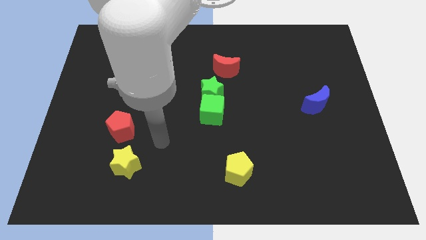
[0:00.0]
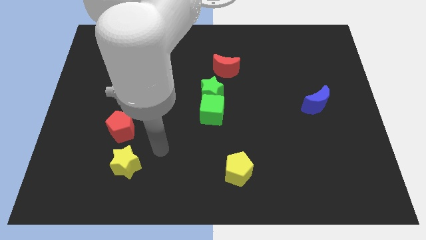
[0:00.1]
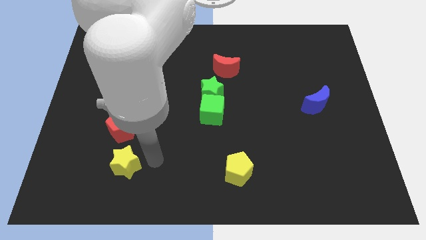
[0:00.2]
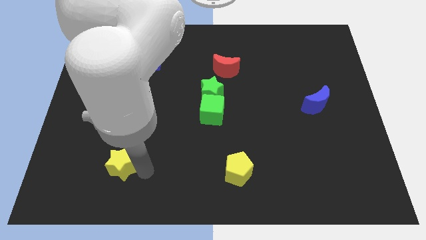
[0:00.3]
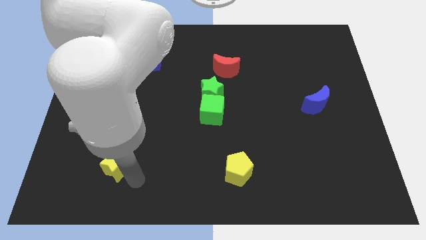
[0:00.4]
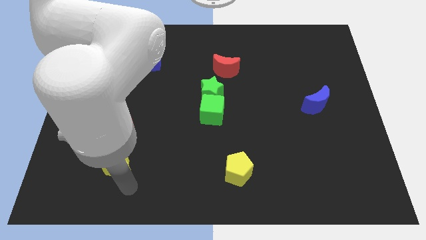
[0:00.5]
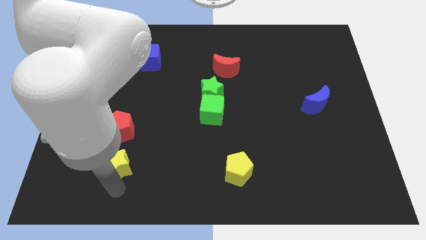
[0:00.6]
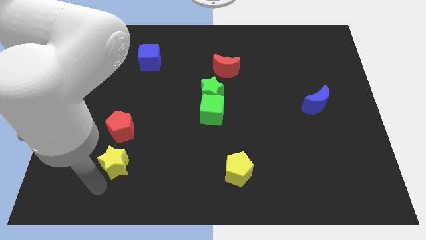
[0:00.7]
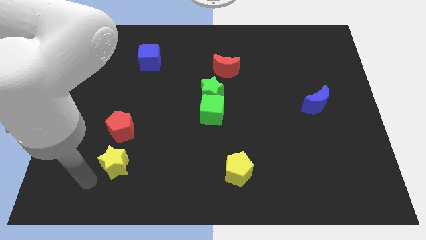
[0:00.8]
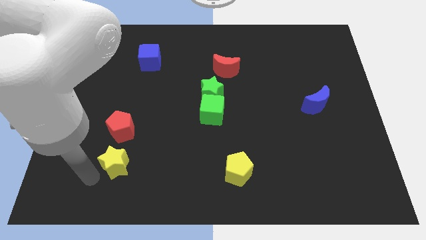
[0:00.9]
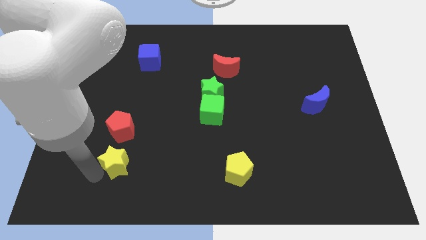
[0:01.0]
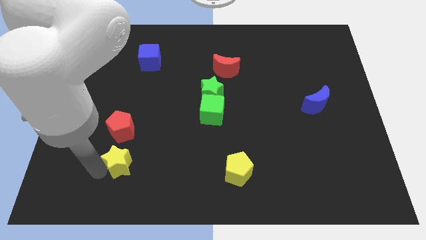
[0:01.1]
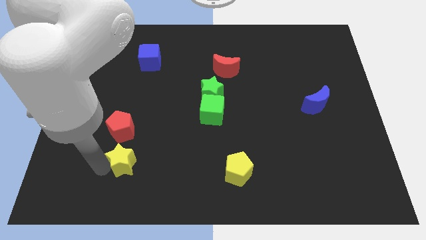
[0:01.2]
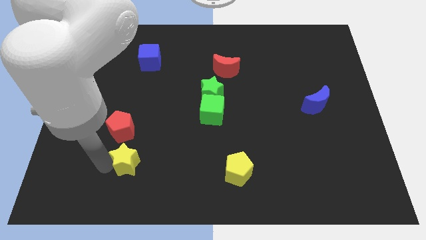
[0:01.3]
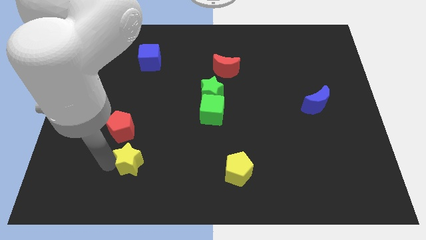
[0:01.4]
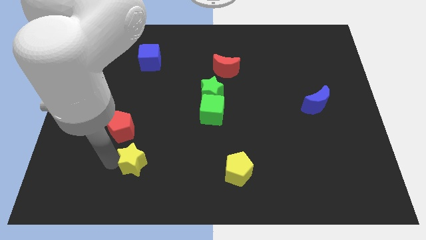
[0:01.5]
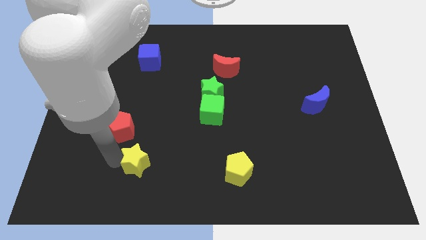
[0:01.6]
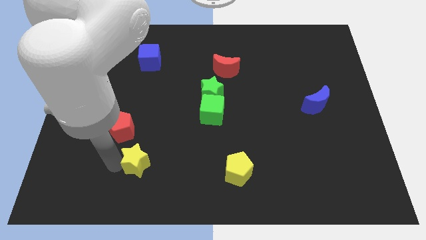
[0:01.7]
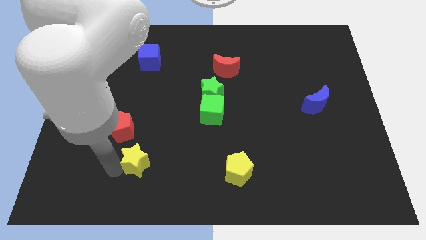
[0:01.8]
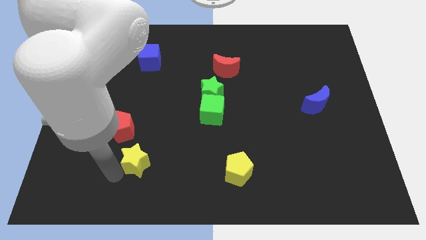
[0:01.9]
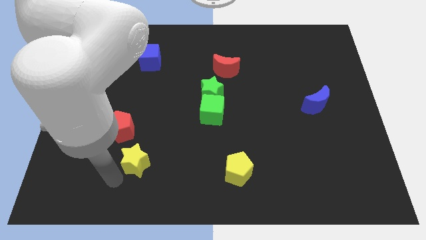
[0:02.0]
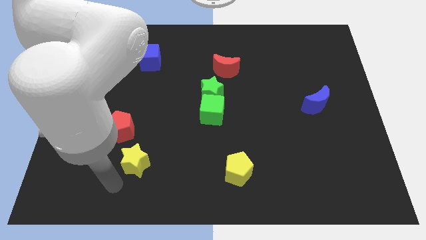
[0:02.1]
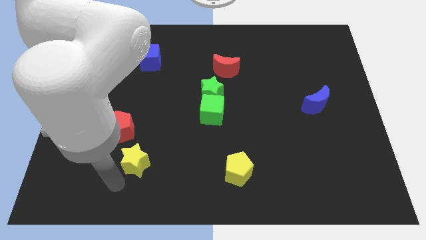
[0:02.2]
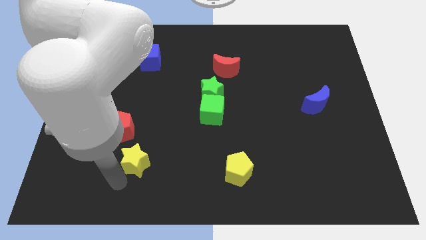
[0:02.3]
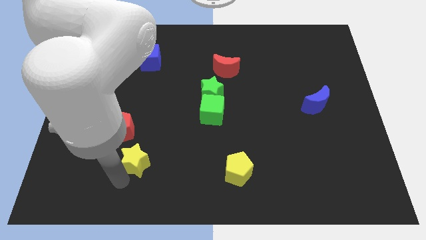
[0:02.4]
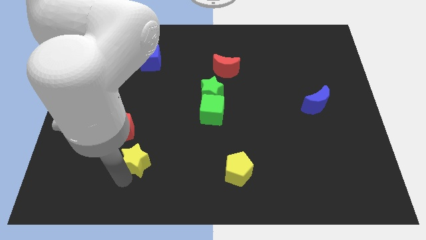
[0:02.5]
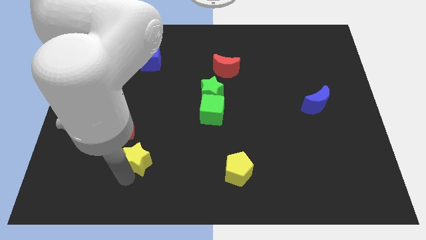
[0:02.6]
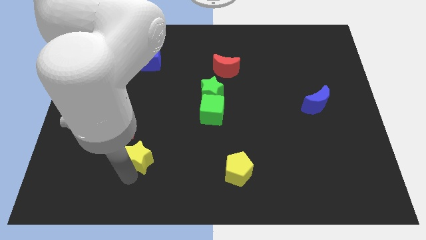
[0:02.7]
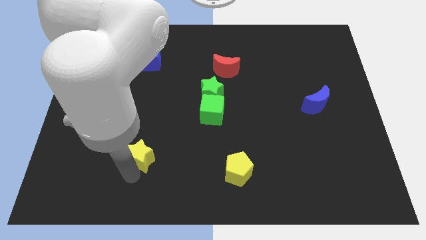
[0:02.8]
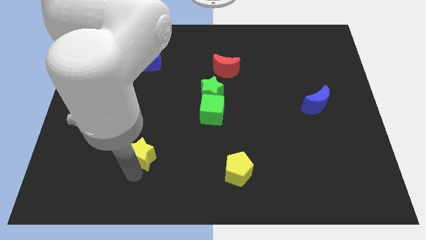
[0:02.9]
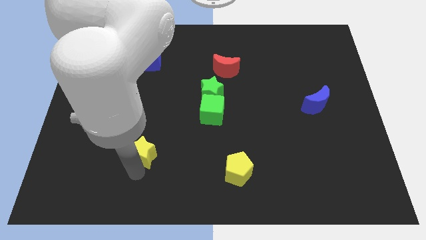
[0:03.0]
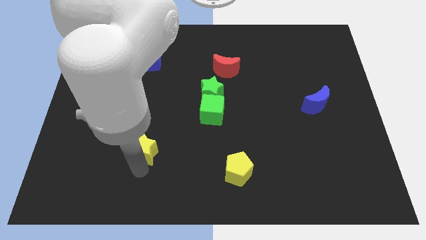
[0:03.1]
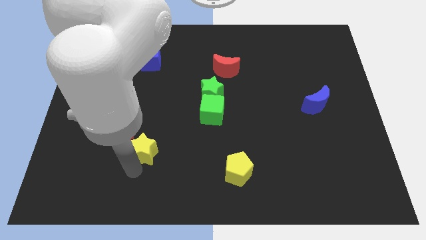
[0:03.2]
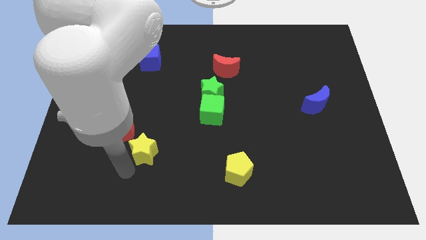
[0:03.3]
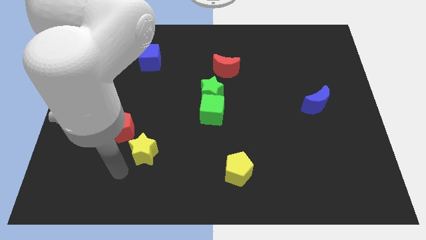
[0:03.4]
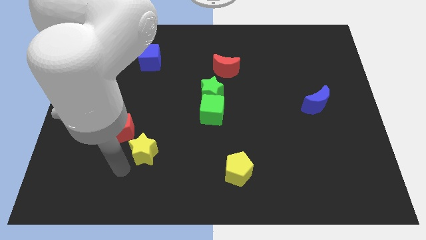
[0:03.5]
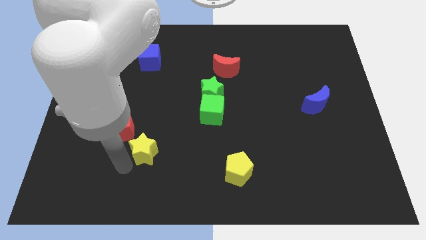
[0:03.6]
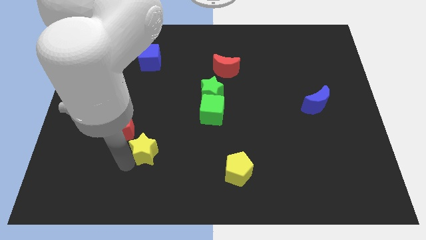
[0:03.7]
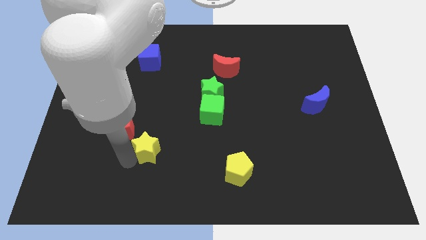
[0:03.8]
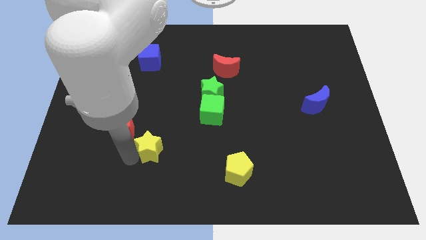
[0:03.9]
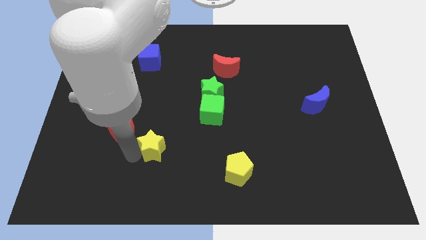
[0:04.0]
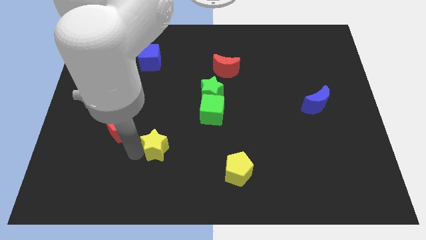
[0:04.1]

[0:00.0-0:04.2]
slightly push the yellow star up and to the right diagonally

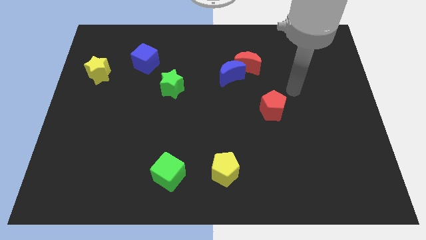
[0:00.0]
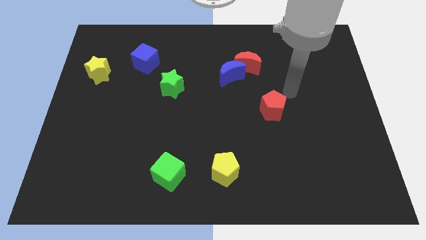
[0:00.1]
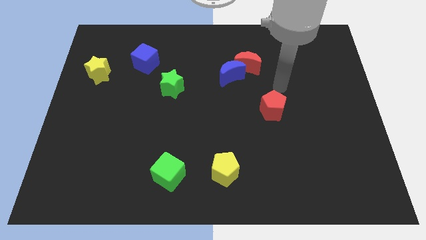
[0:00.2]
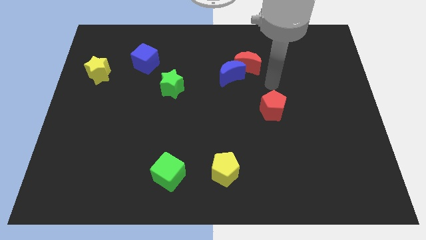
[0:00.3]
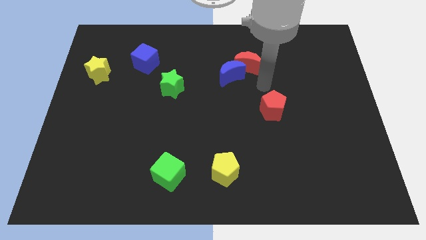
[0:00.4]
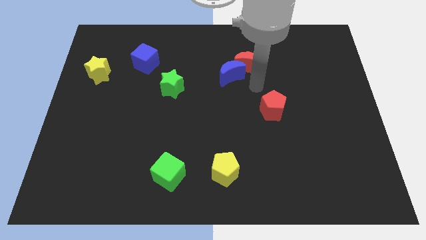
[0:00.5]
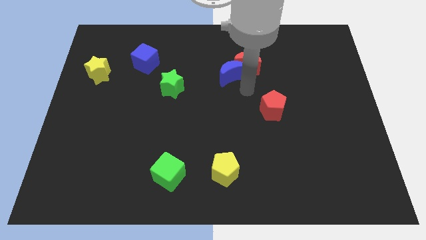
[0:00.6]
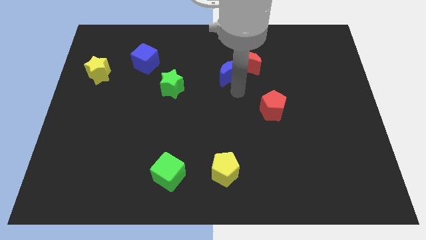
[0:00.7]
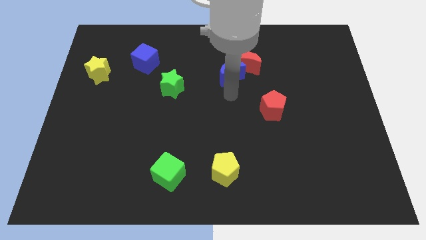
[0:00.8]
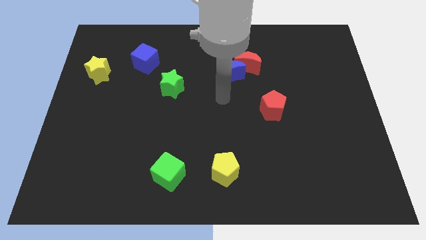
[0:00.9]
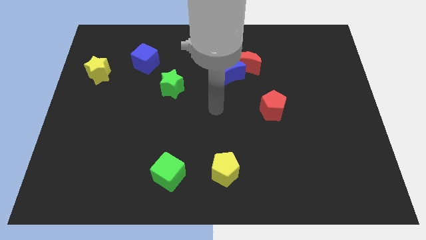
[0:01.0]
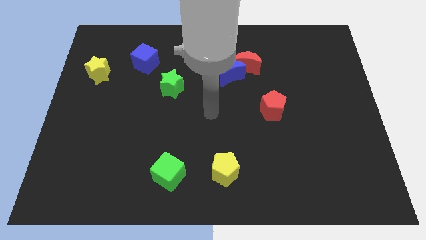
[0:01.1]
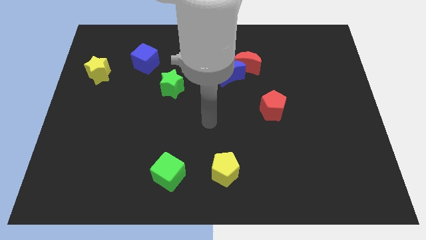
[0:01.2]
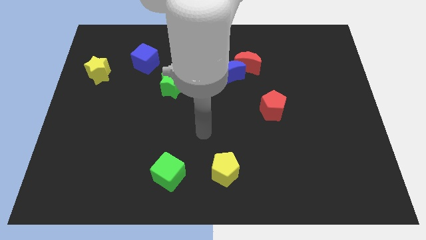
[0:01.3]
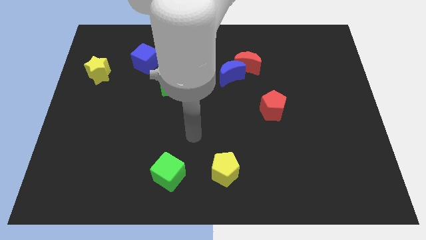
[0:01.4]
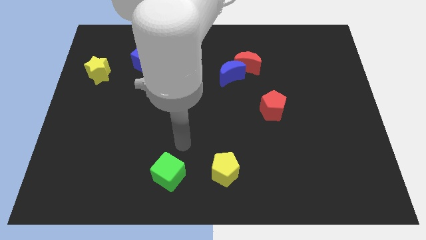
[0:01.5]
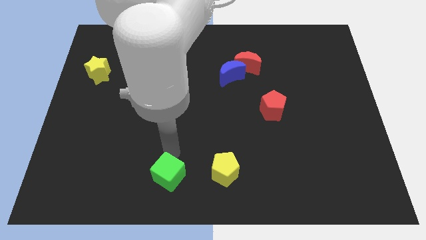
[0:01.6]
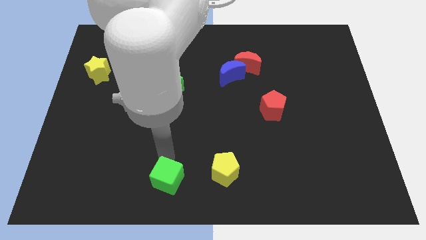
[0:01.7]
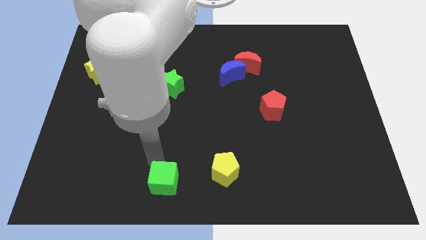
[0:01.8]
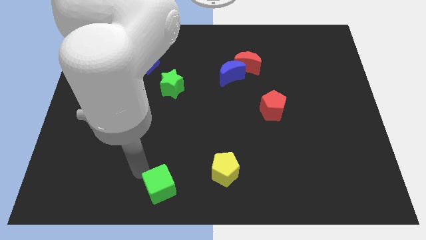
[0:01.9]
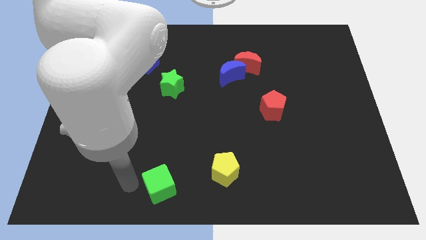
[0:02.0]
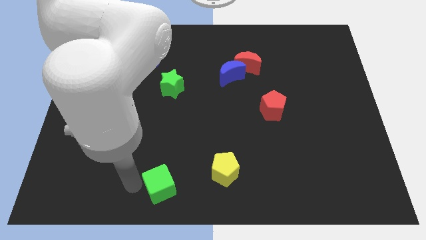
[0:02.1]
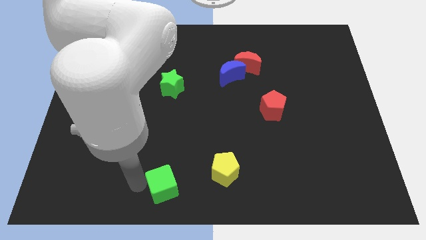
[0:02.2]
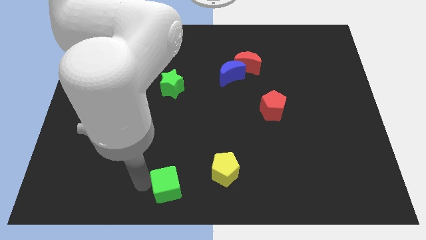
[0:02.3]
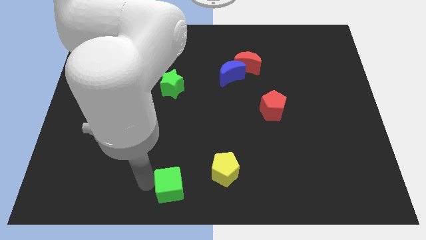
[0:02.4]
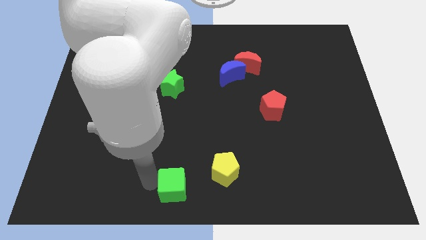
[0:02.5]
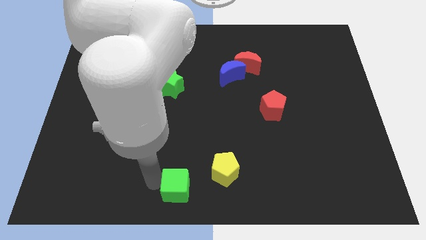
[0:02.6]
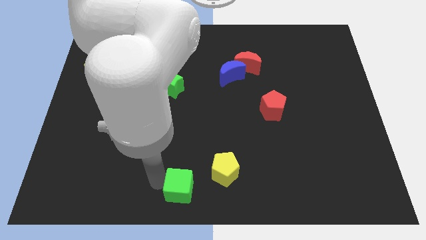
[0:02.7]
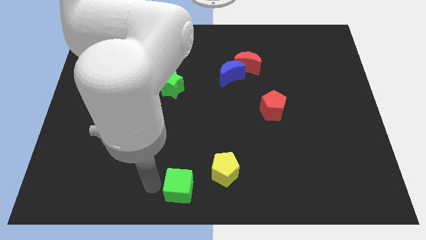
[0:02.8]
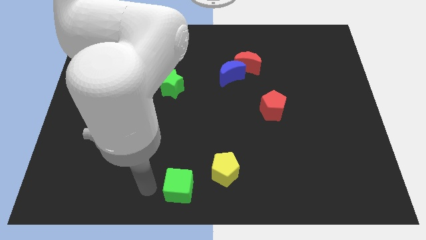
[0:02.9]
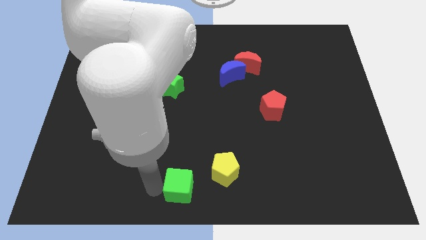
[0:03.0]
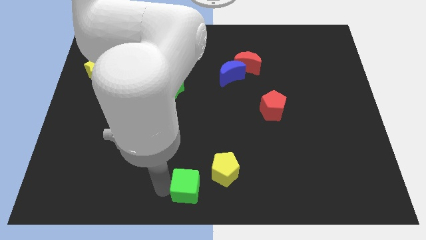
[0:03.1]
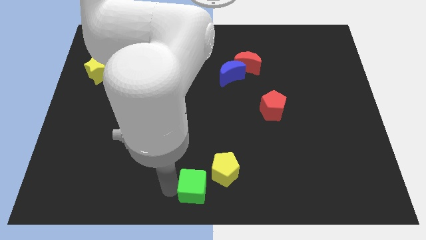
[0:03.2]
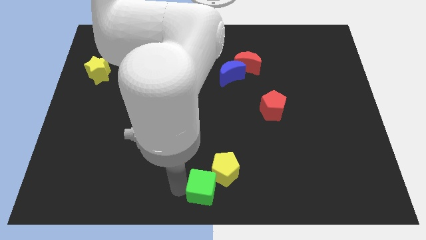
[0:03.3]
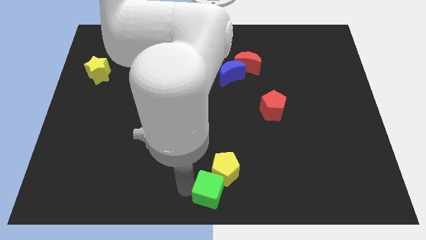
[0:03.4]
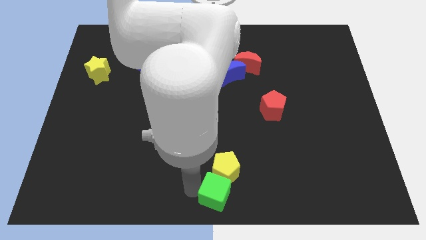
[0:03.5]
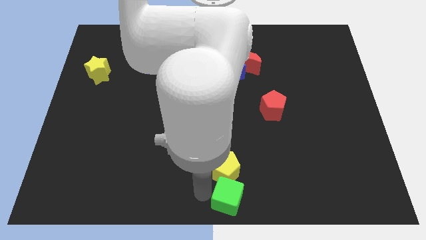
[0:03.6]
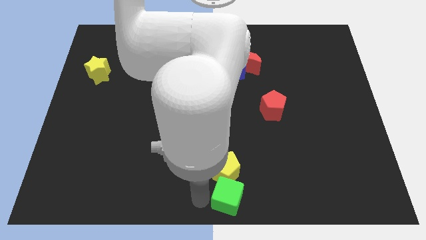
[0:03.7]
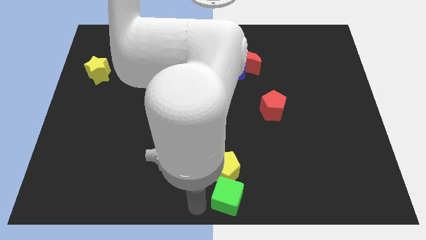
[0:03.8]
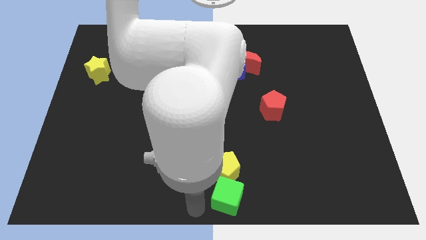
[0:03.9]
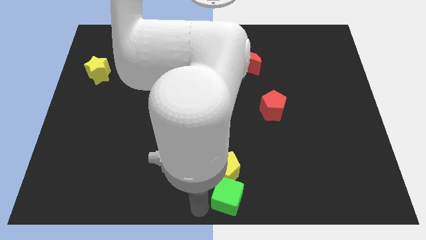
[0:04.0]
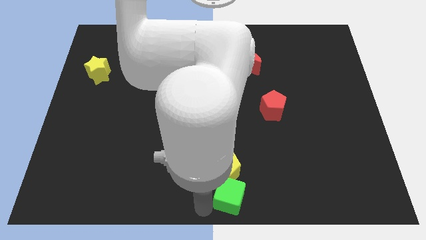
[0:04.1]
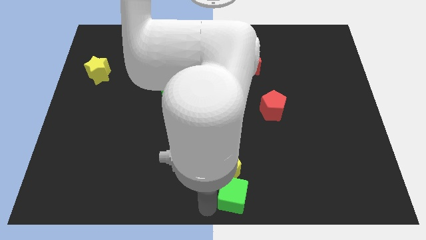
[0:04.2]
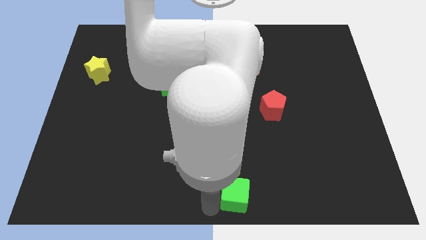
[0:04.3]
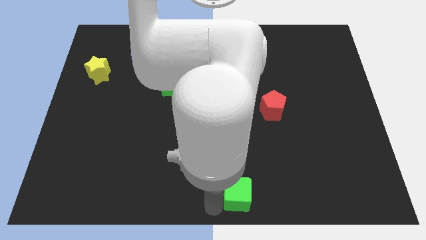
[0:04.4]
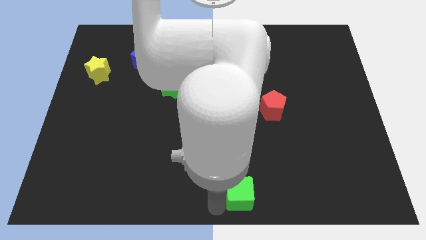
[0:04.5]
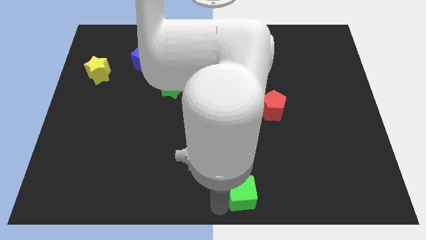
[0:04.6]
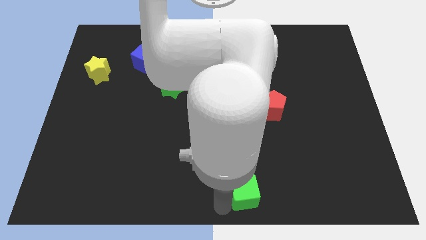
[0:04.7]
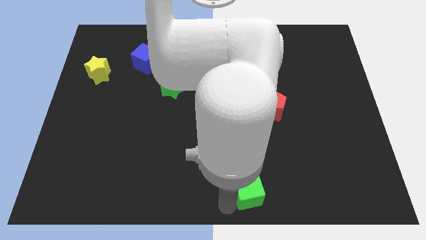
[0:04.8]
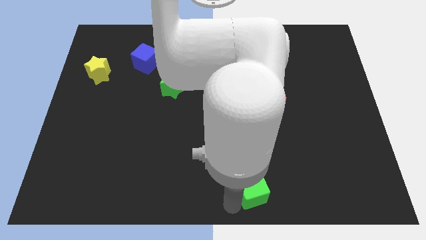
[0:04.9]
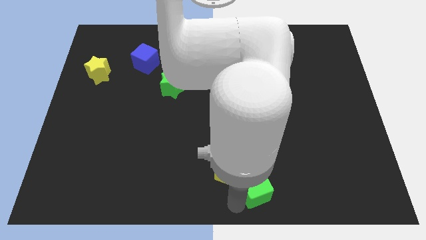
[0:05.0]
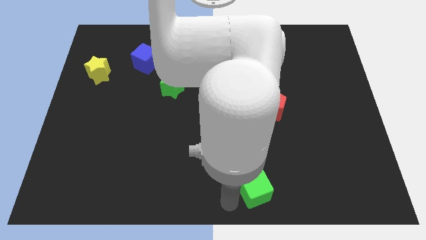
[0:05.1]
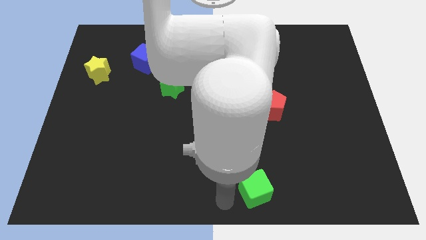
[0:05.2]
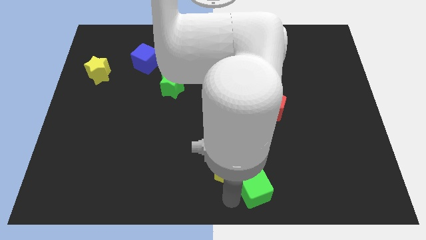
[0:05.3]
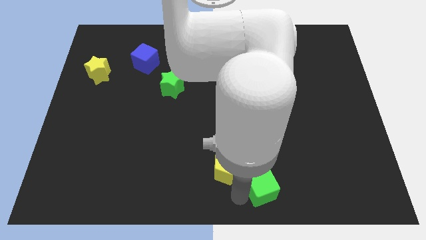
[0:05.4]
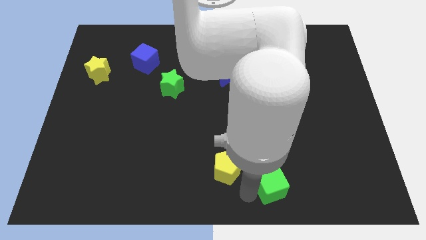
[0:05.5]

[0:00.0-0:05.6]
slide the green cube right
